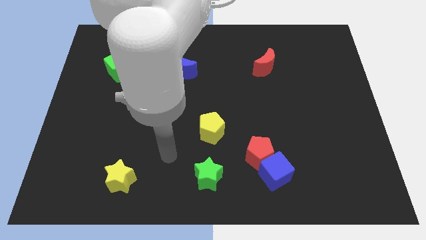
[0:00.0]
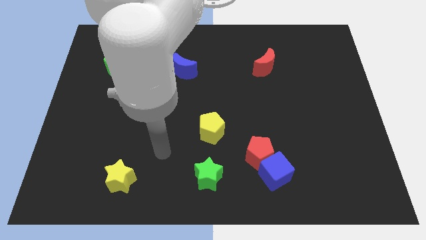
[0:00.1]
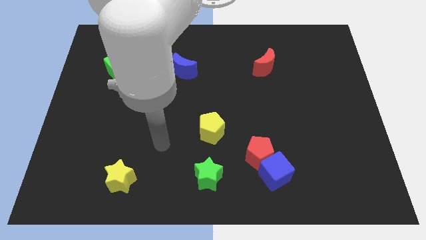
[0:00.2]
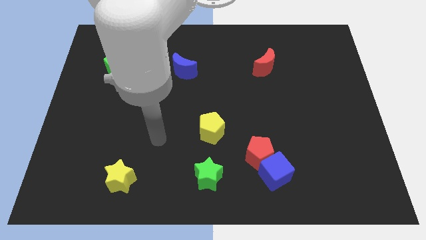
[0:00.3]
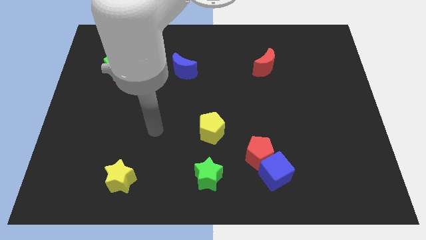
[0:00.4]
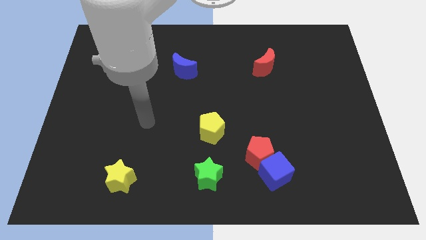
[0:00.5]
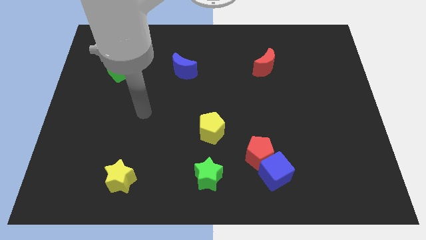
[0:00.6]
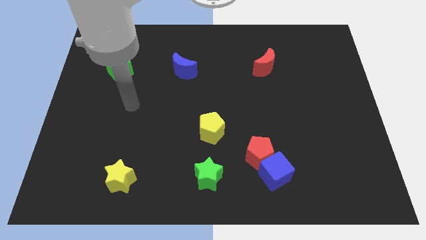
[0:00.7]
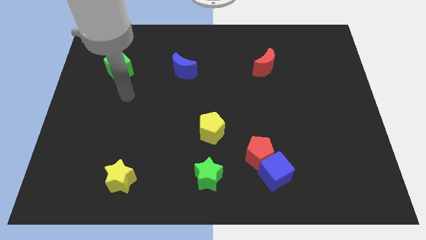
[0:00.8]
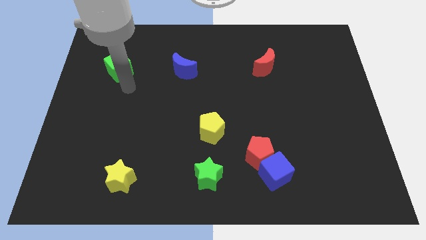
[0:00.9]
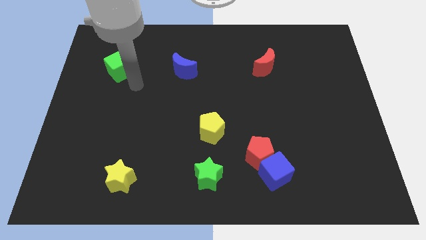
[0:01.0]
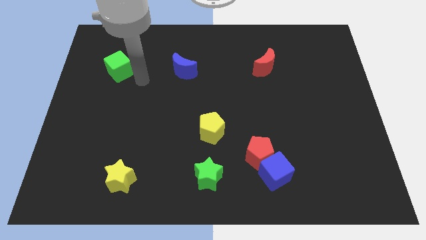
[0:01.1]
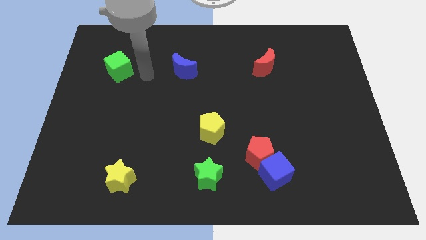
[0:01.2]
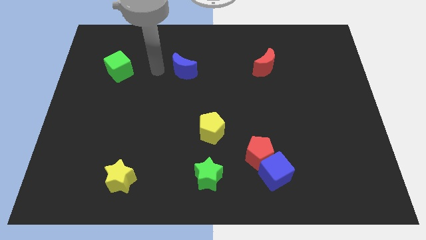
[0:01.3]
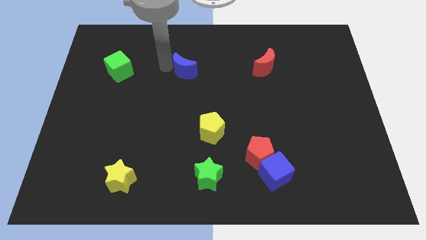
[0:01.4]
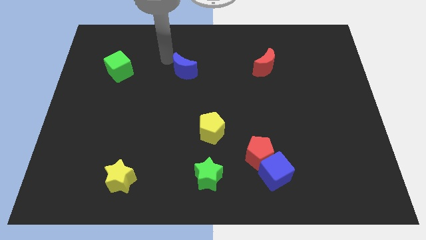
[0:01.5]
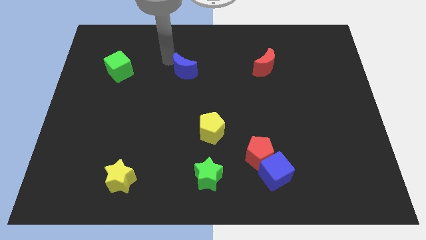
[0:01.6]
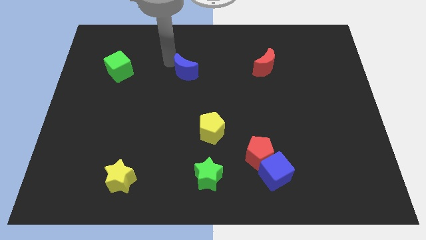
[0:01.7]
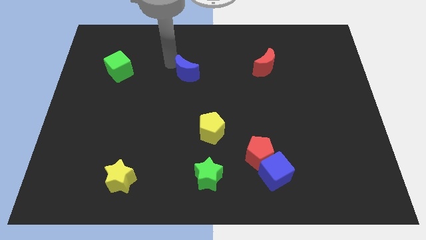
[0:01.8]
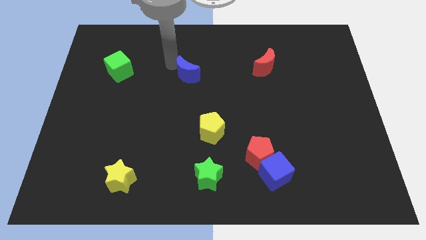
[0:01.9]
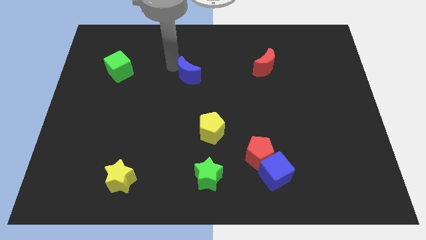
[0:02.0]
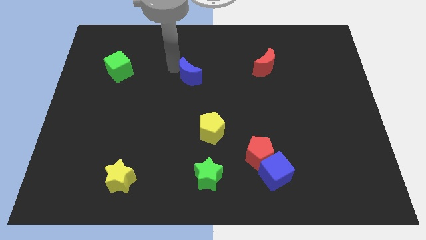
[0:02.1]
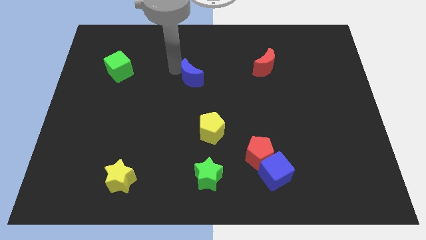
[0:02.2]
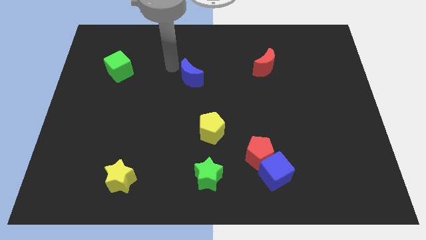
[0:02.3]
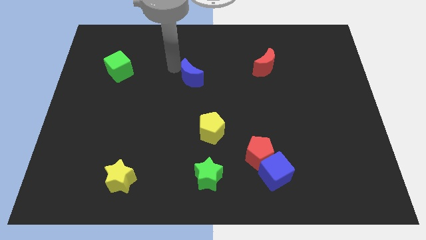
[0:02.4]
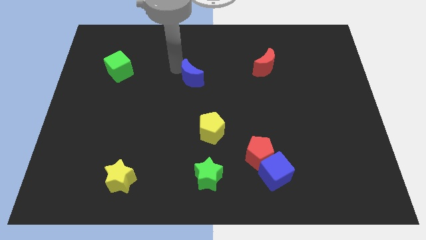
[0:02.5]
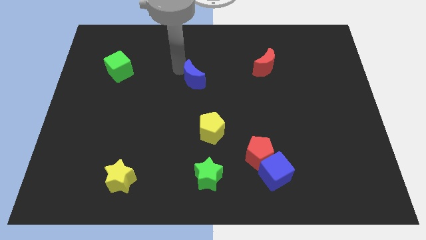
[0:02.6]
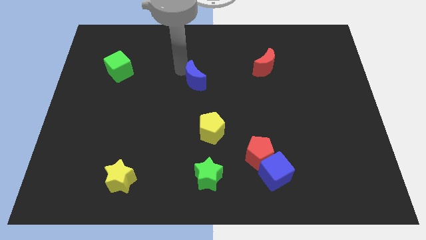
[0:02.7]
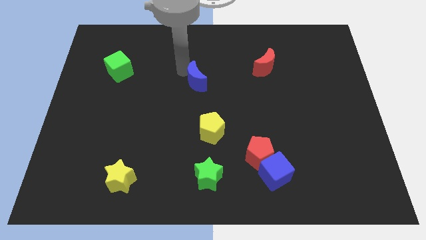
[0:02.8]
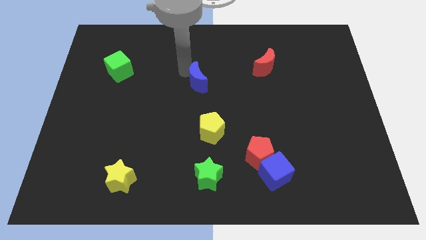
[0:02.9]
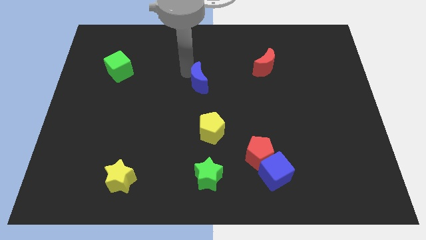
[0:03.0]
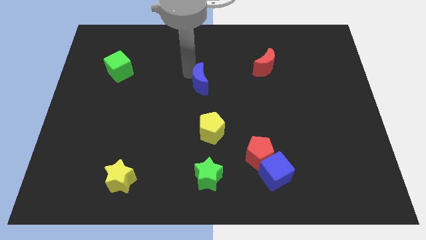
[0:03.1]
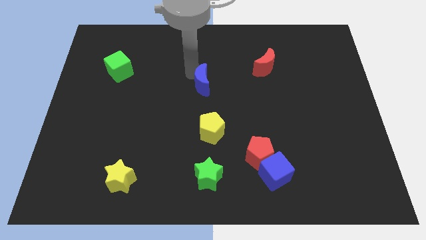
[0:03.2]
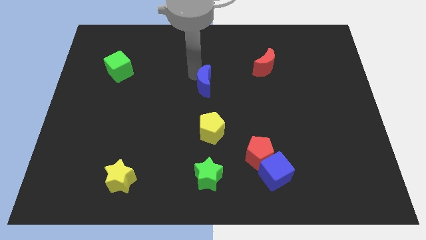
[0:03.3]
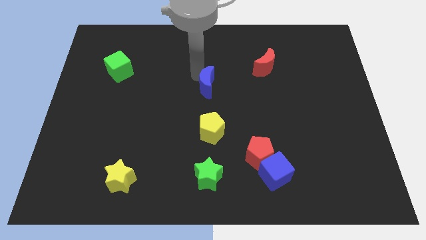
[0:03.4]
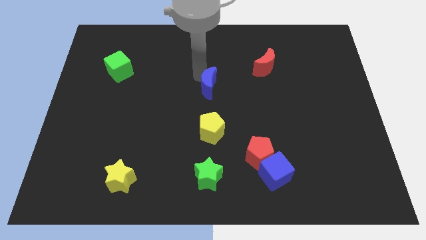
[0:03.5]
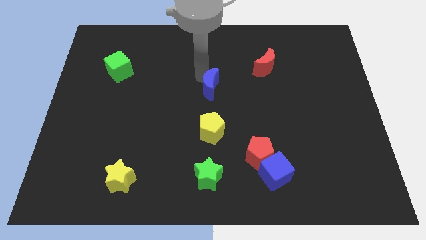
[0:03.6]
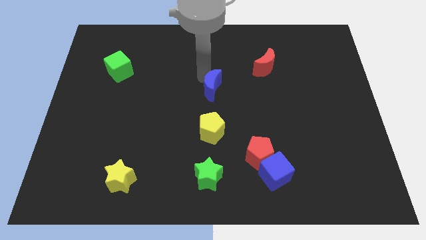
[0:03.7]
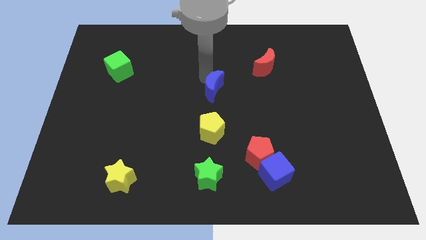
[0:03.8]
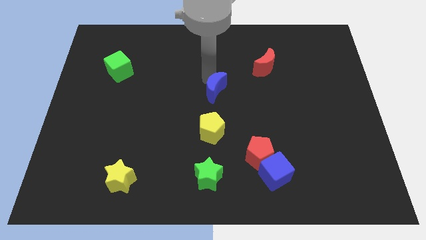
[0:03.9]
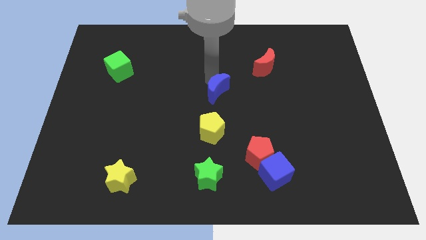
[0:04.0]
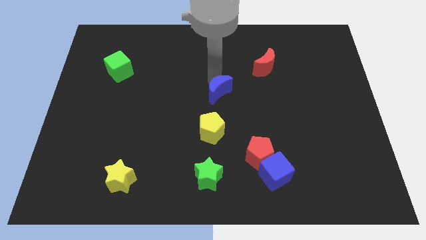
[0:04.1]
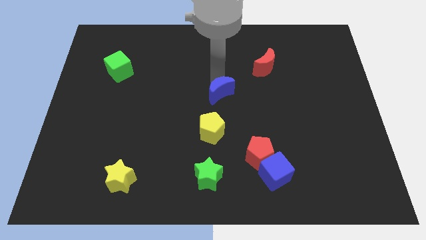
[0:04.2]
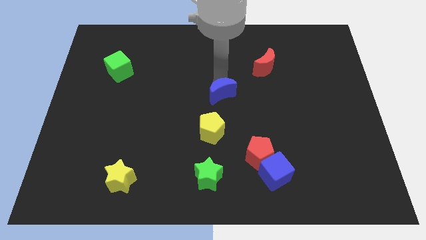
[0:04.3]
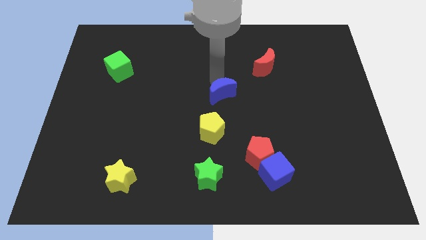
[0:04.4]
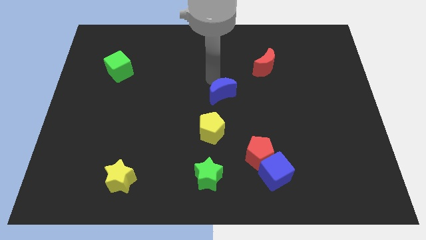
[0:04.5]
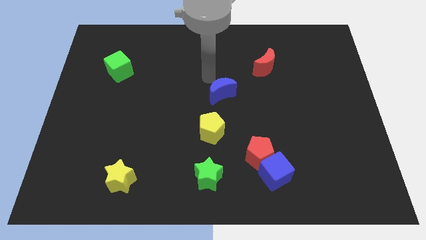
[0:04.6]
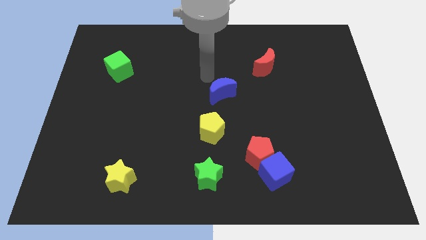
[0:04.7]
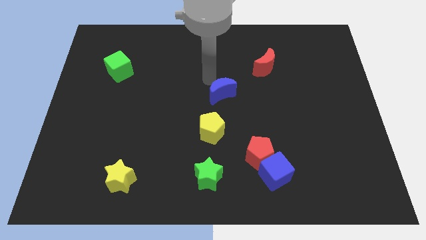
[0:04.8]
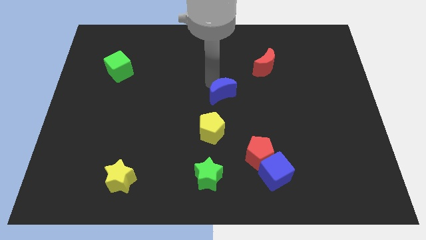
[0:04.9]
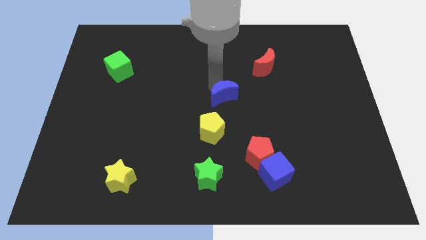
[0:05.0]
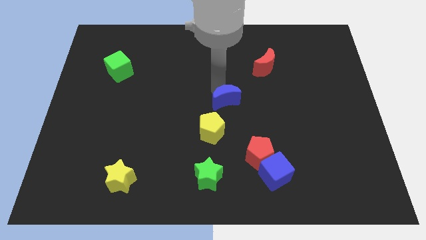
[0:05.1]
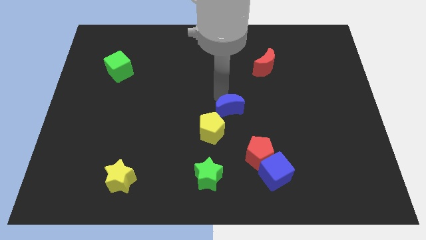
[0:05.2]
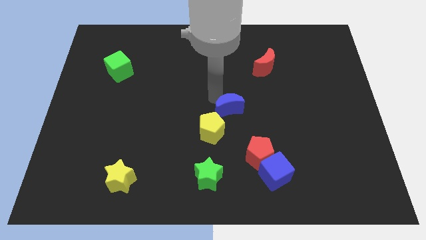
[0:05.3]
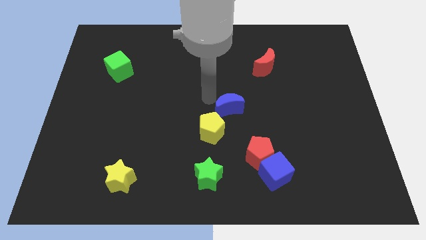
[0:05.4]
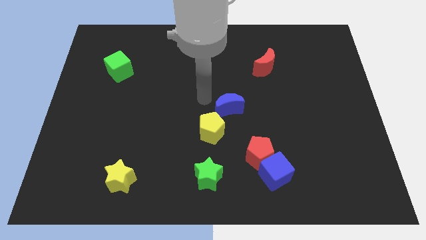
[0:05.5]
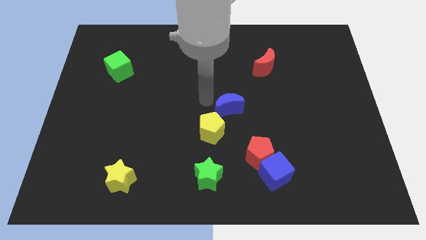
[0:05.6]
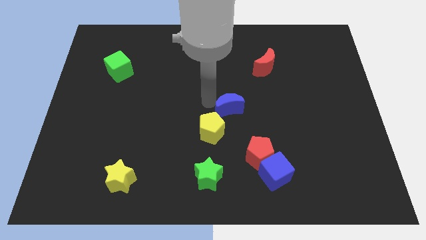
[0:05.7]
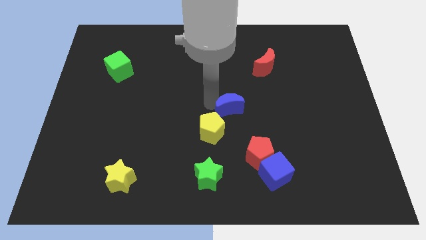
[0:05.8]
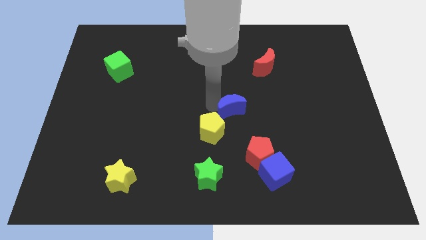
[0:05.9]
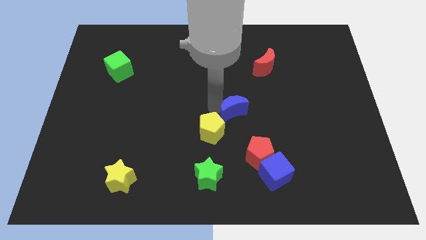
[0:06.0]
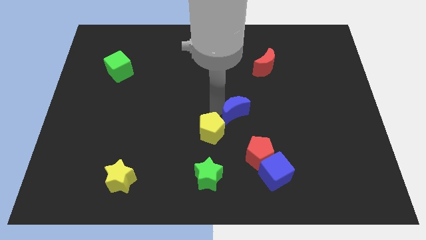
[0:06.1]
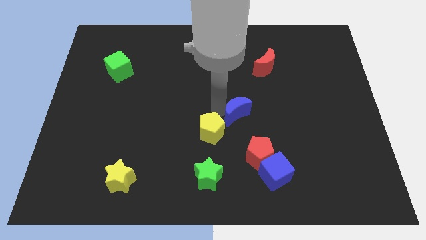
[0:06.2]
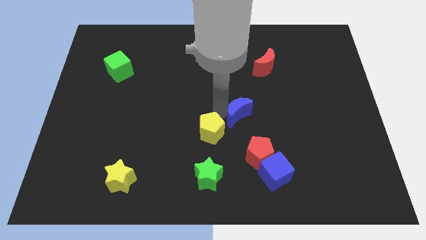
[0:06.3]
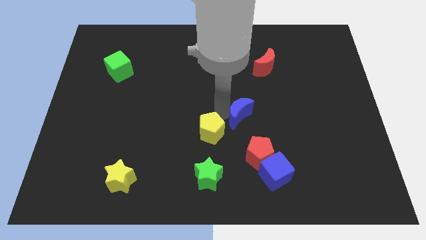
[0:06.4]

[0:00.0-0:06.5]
move the blue moon down and to the right diagonally

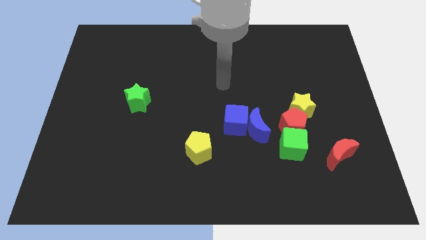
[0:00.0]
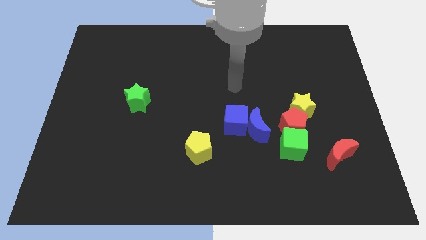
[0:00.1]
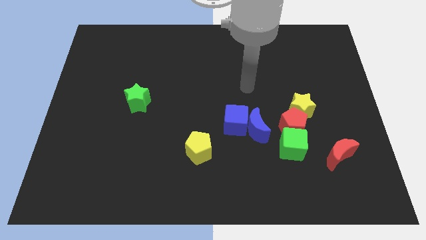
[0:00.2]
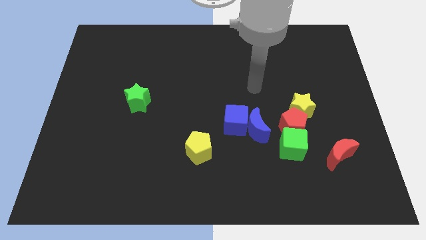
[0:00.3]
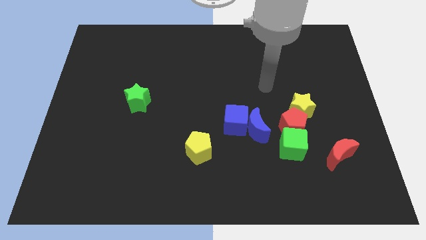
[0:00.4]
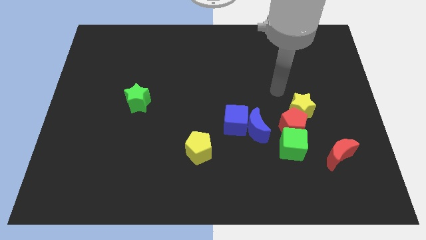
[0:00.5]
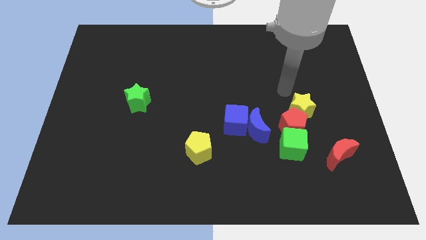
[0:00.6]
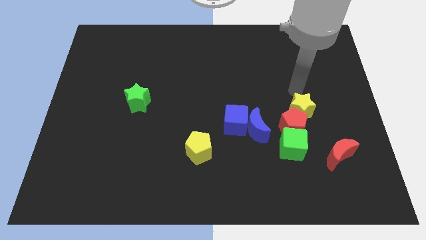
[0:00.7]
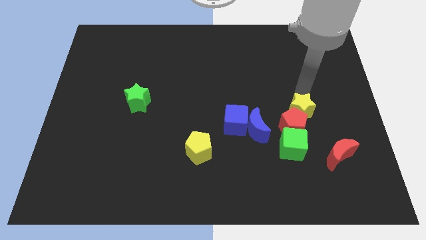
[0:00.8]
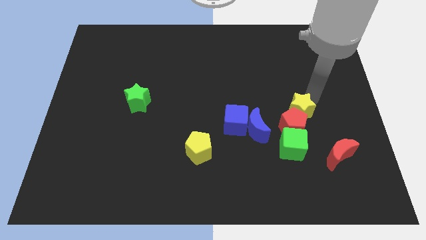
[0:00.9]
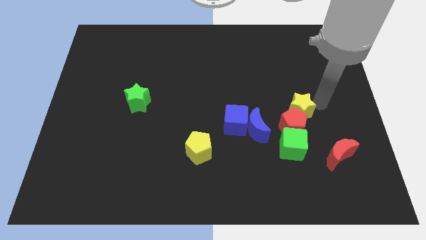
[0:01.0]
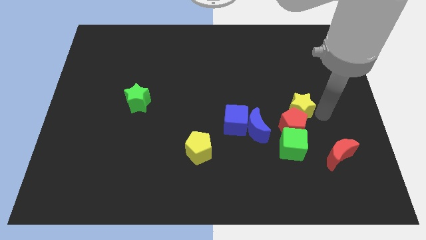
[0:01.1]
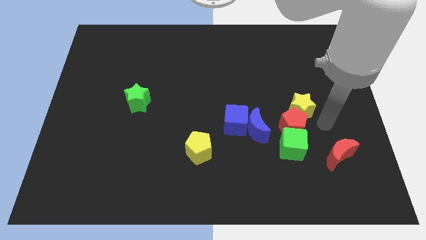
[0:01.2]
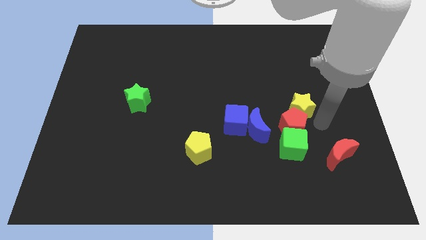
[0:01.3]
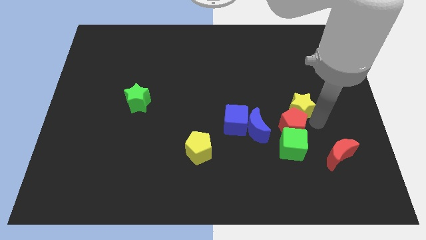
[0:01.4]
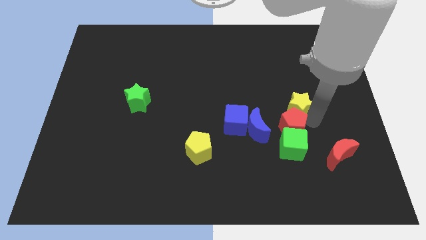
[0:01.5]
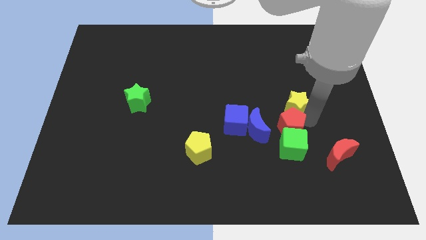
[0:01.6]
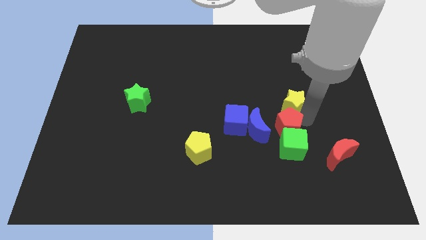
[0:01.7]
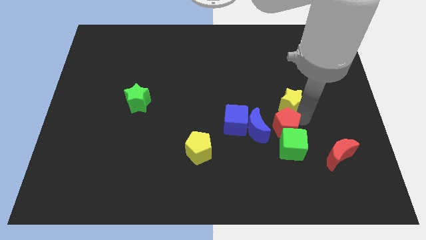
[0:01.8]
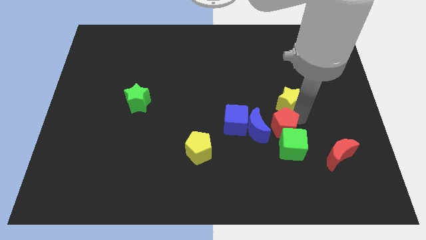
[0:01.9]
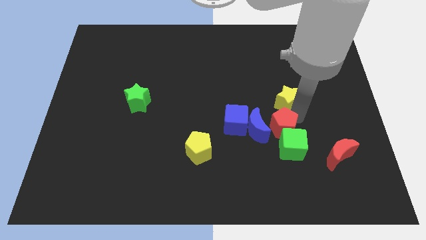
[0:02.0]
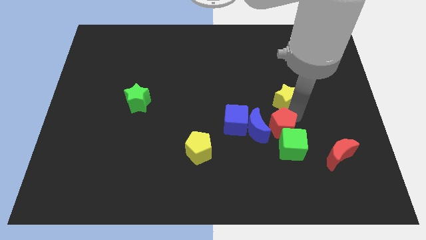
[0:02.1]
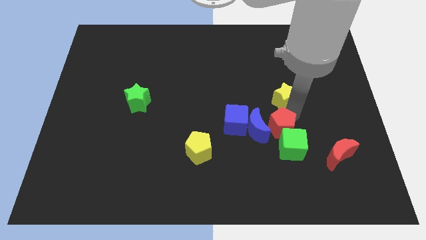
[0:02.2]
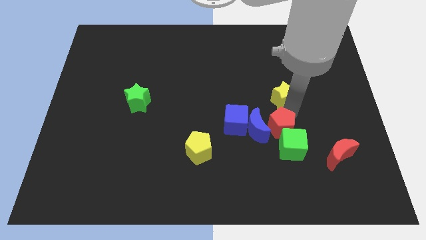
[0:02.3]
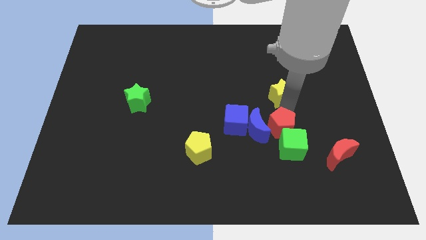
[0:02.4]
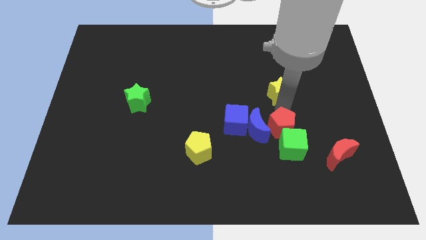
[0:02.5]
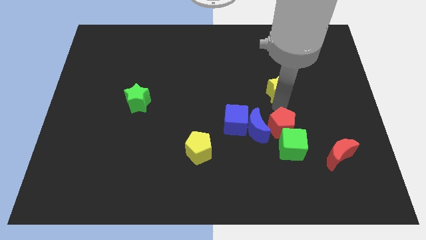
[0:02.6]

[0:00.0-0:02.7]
slightly slide the yellow star up and then to the left
